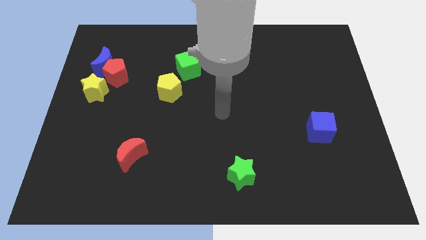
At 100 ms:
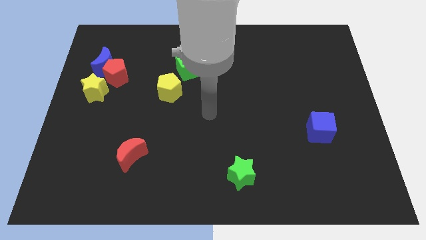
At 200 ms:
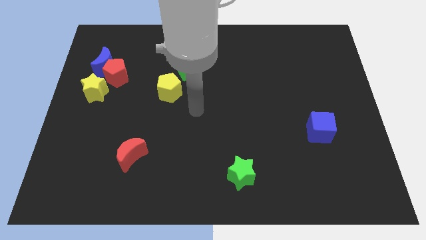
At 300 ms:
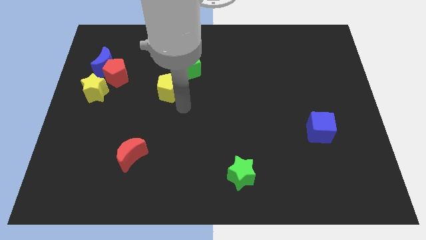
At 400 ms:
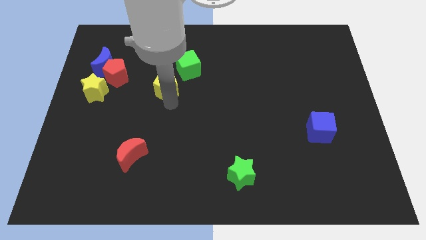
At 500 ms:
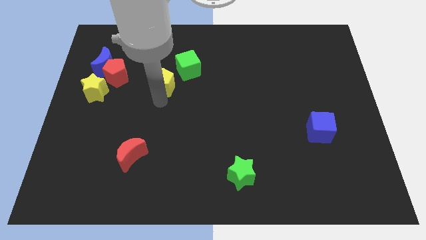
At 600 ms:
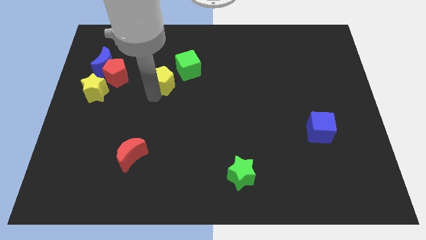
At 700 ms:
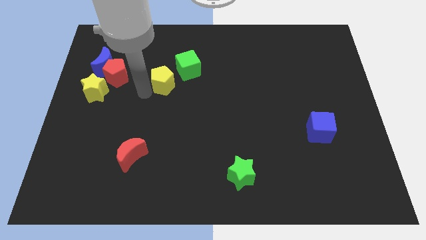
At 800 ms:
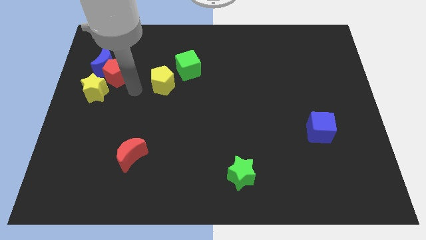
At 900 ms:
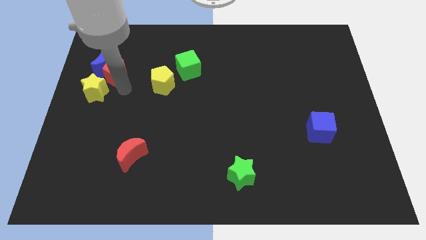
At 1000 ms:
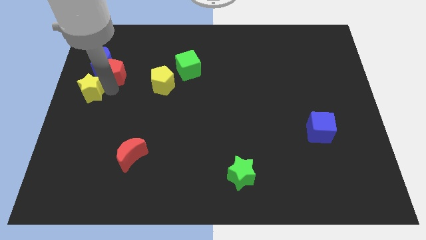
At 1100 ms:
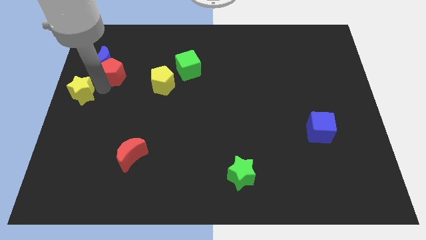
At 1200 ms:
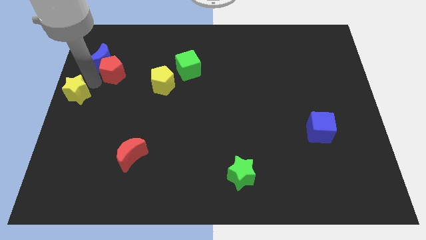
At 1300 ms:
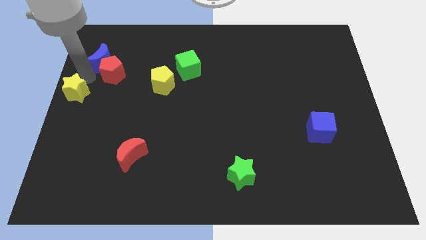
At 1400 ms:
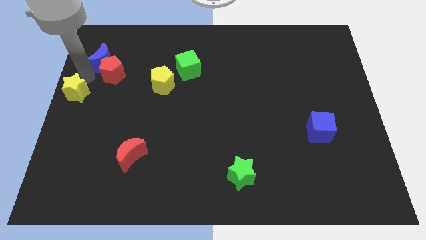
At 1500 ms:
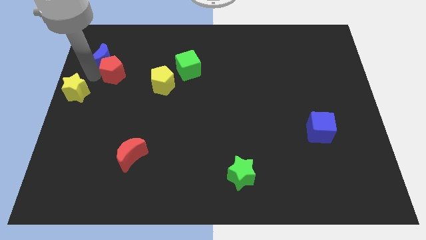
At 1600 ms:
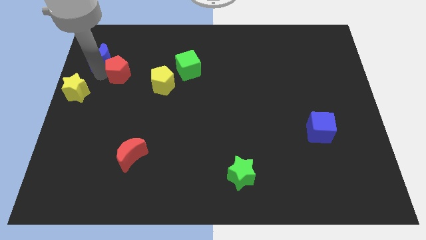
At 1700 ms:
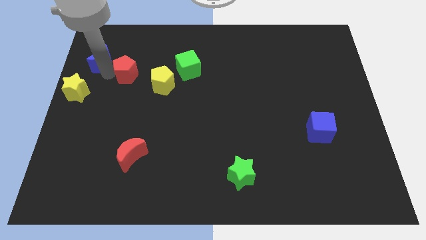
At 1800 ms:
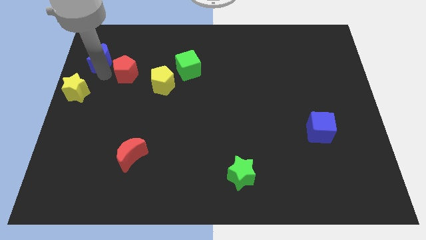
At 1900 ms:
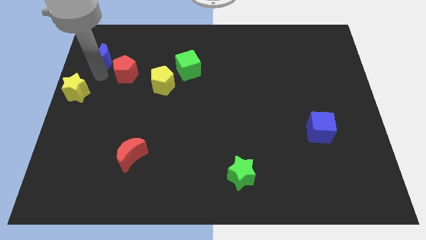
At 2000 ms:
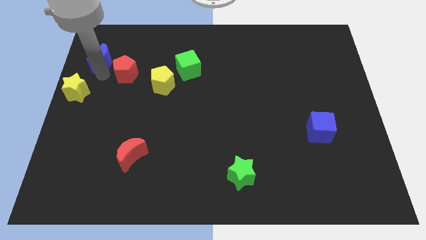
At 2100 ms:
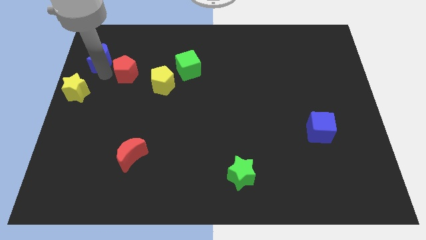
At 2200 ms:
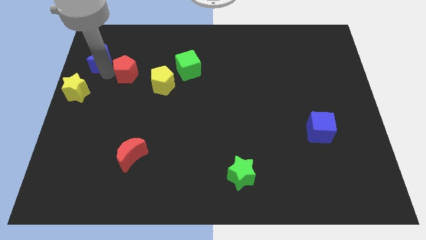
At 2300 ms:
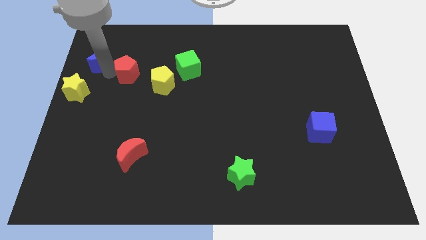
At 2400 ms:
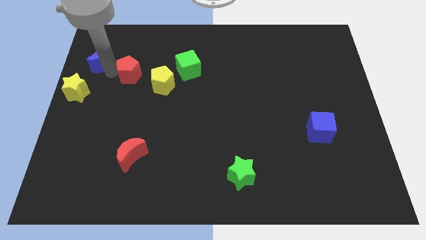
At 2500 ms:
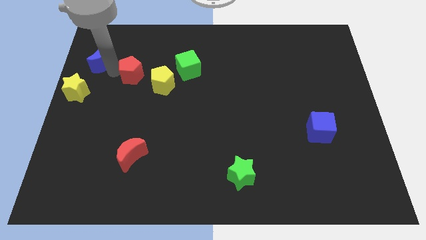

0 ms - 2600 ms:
move the red pentagon away from the blue moon and yellow star

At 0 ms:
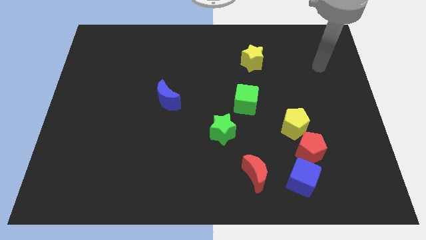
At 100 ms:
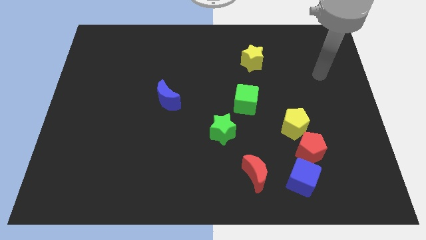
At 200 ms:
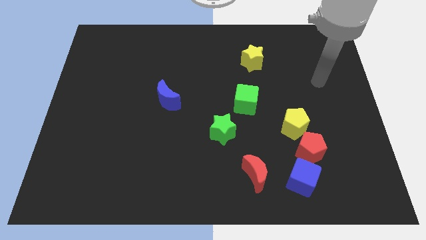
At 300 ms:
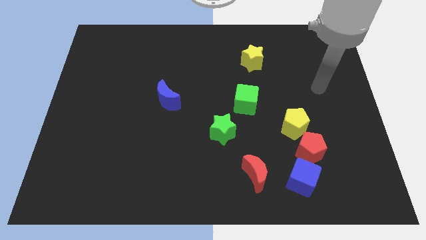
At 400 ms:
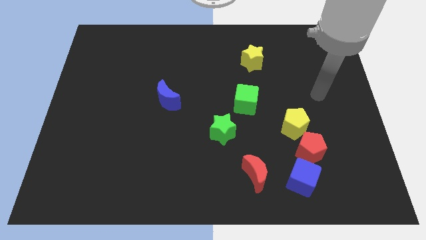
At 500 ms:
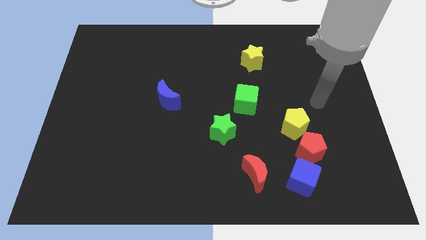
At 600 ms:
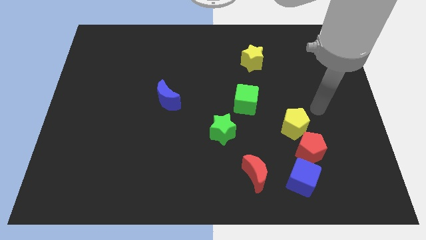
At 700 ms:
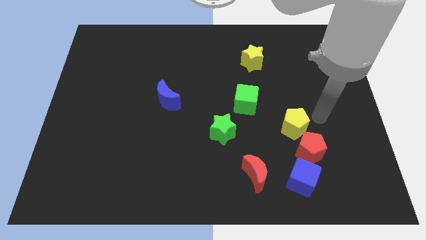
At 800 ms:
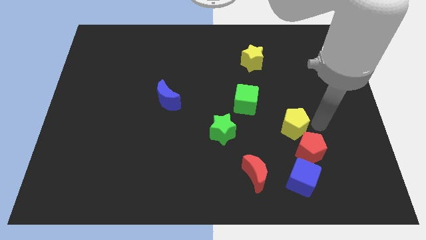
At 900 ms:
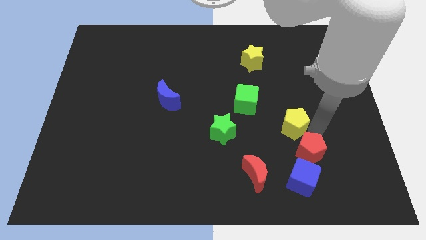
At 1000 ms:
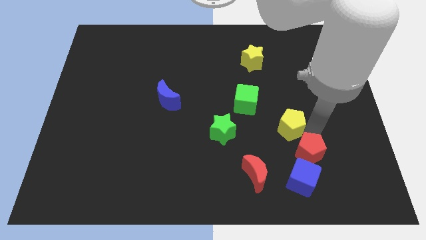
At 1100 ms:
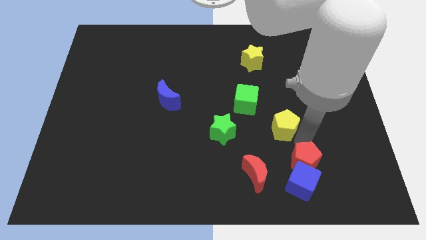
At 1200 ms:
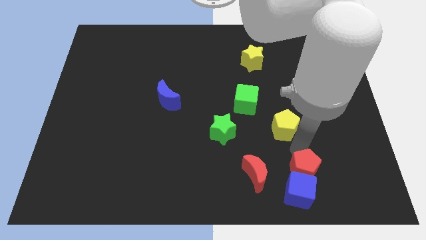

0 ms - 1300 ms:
move the yellow pentagon away from the red pentagon

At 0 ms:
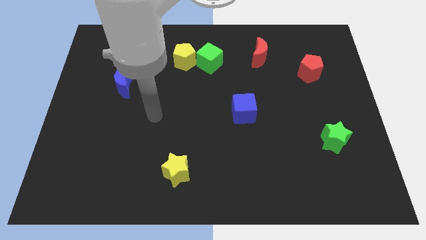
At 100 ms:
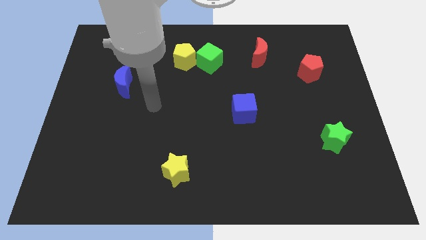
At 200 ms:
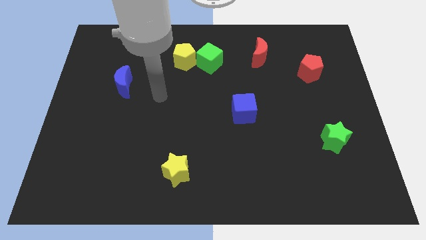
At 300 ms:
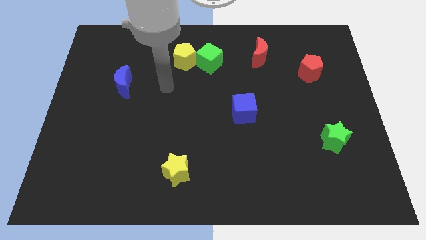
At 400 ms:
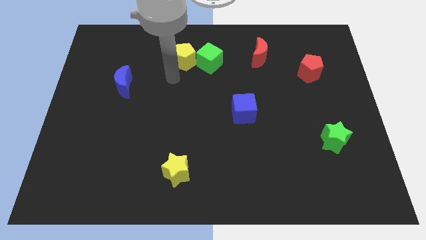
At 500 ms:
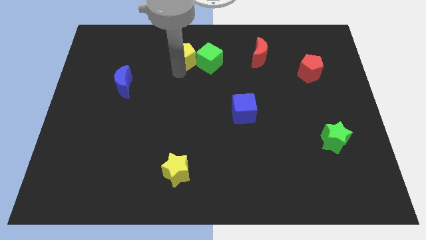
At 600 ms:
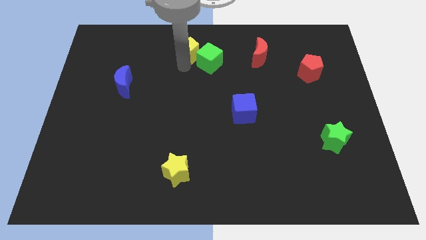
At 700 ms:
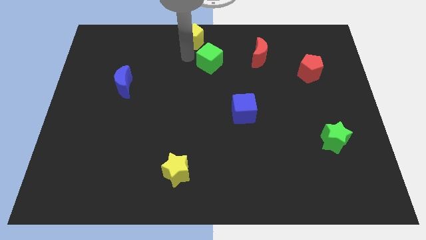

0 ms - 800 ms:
separate the green cube from the yellow pentagon

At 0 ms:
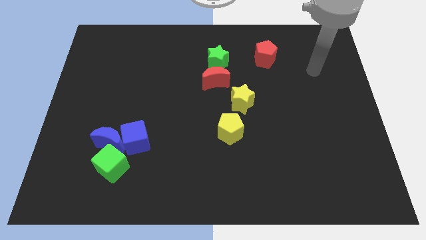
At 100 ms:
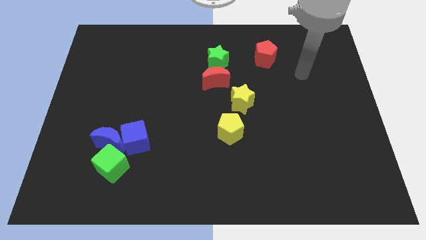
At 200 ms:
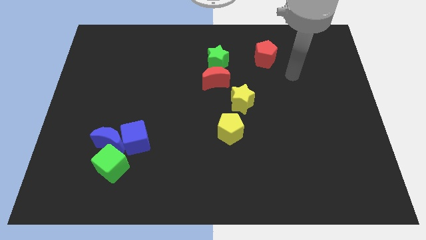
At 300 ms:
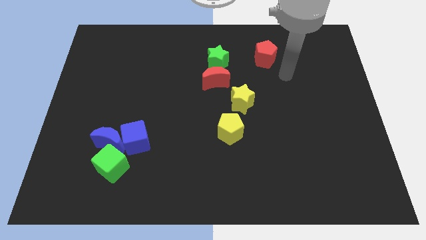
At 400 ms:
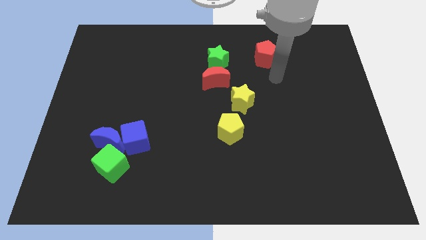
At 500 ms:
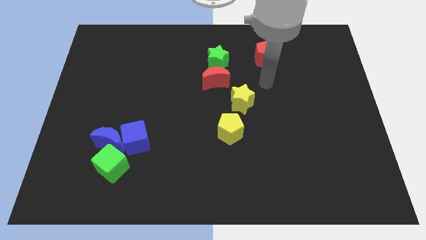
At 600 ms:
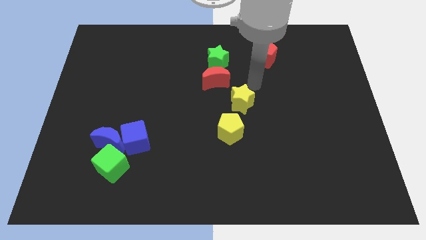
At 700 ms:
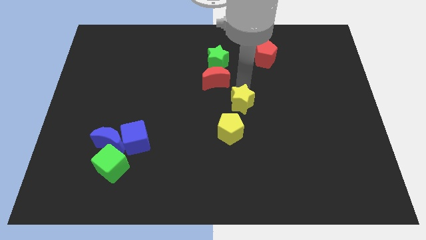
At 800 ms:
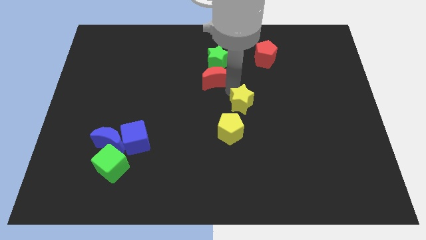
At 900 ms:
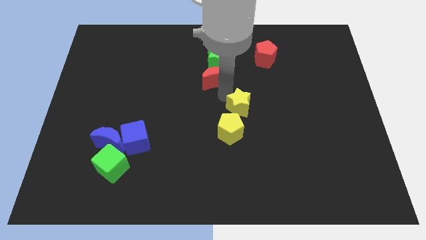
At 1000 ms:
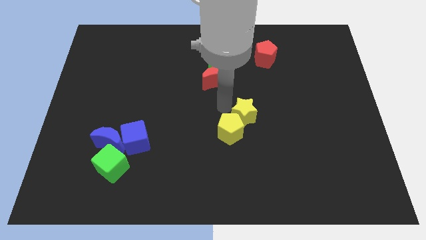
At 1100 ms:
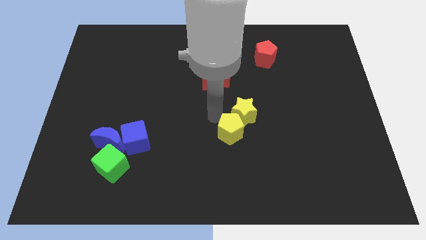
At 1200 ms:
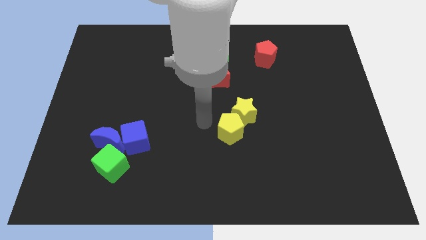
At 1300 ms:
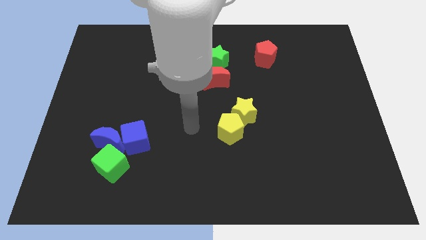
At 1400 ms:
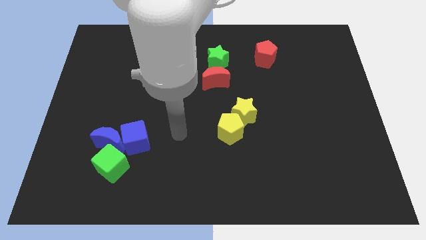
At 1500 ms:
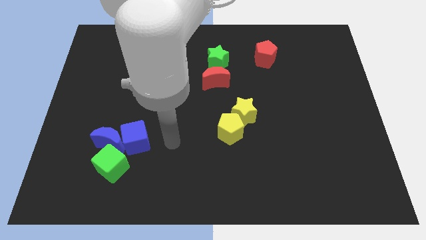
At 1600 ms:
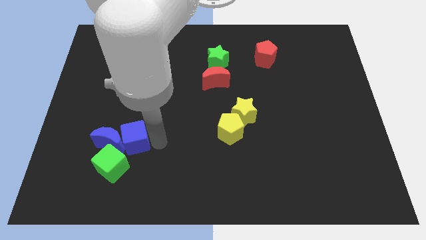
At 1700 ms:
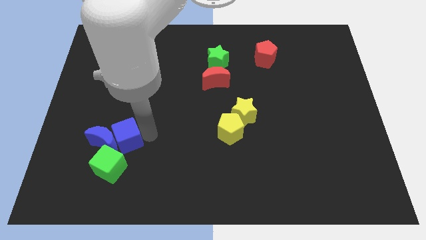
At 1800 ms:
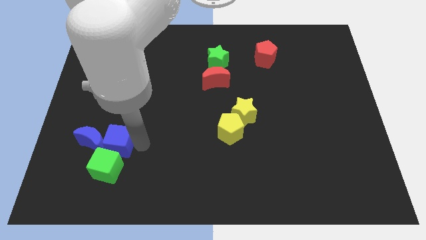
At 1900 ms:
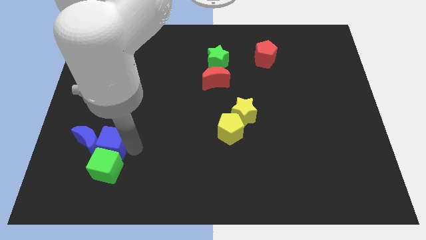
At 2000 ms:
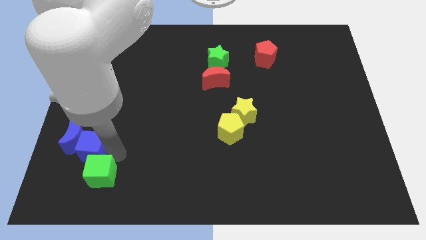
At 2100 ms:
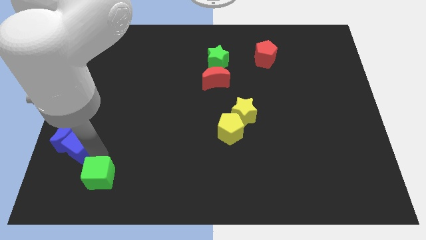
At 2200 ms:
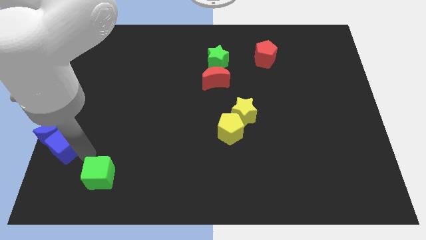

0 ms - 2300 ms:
move the blue moon away from the blue cube and green cube

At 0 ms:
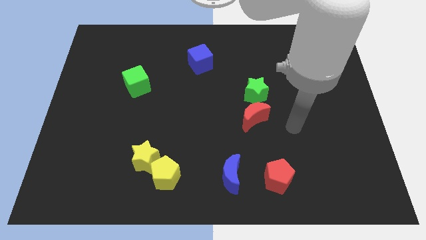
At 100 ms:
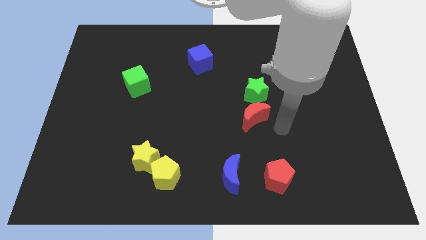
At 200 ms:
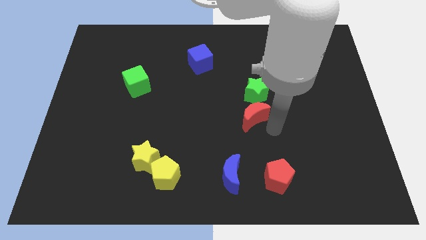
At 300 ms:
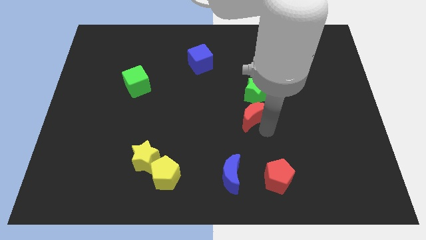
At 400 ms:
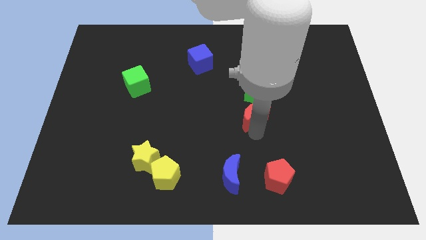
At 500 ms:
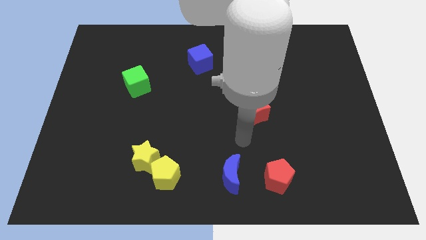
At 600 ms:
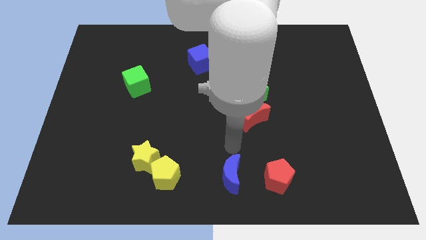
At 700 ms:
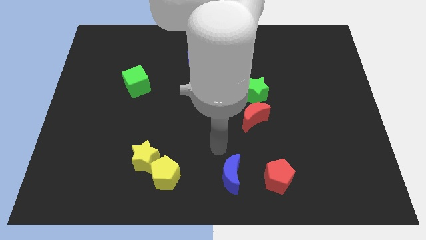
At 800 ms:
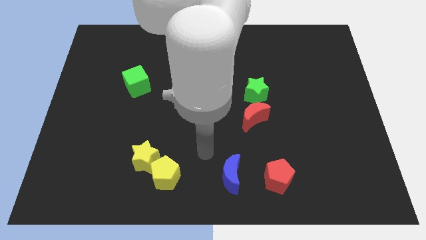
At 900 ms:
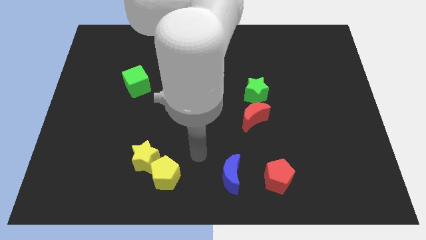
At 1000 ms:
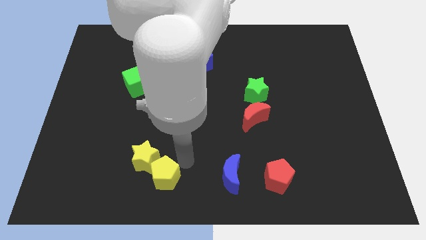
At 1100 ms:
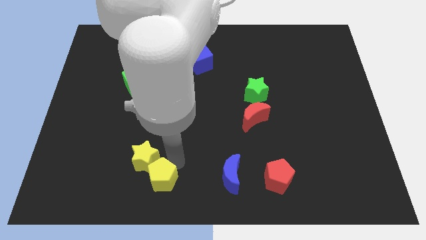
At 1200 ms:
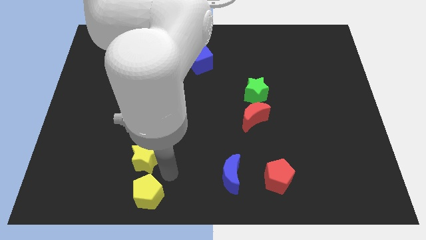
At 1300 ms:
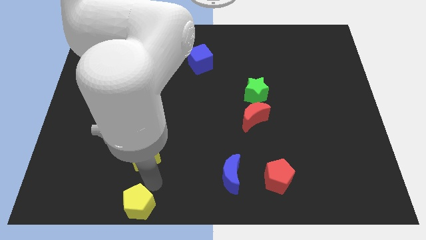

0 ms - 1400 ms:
pull the yellow star apart from the yellow pentagon

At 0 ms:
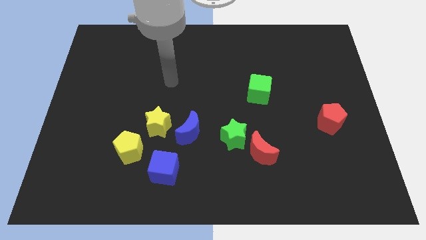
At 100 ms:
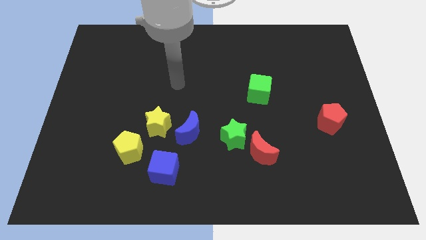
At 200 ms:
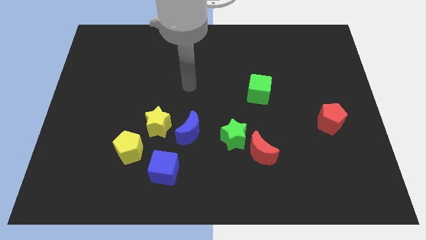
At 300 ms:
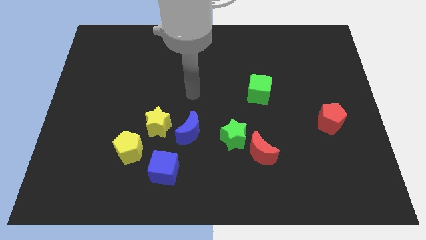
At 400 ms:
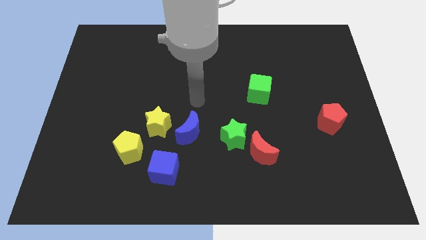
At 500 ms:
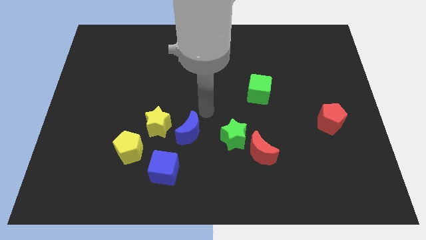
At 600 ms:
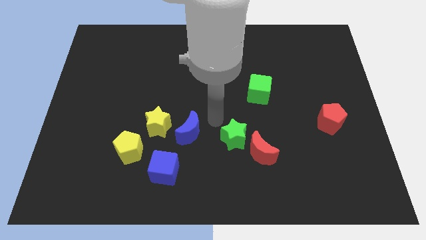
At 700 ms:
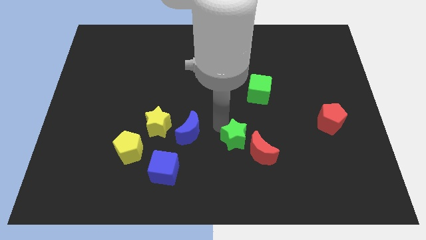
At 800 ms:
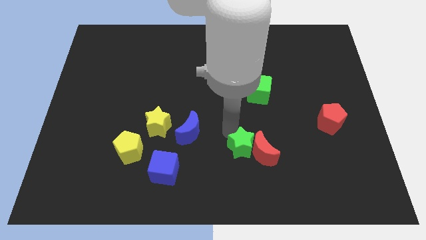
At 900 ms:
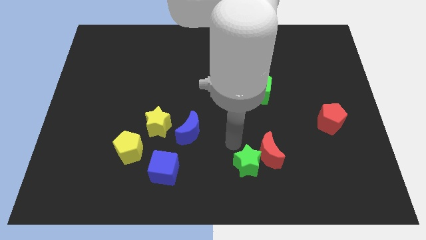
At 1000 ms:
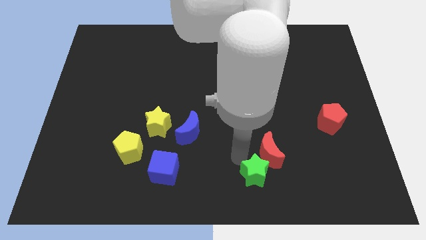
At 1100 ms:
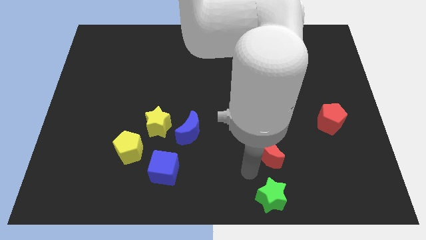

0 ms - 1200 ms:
separate the red moon from the green star
